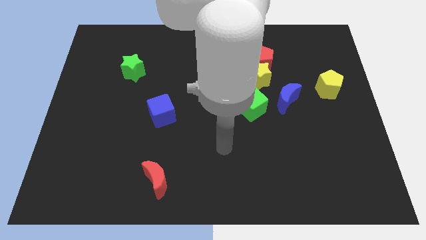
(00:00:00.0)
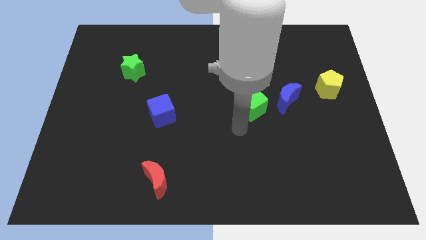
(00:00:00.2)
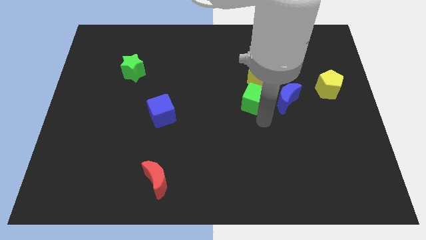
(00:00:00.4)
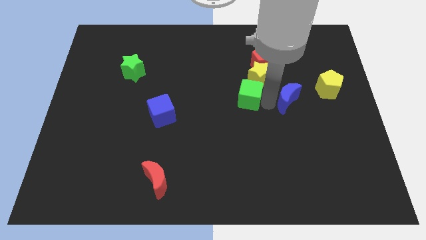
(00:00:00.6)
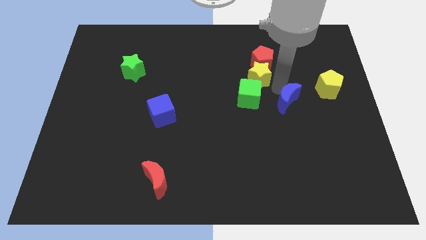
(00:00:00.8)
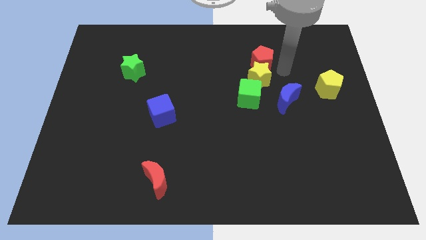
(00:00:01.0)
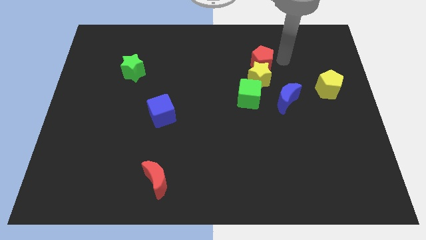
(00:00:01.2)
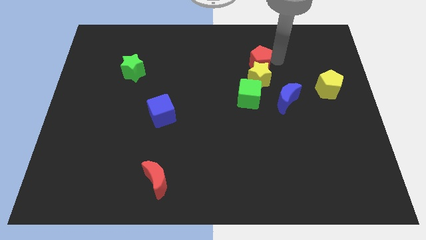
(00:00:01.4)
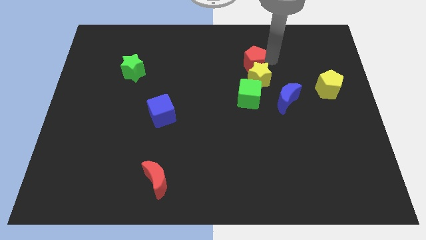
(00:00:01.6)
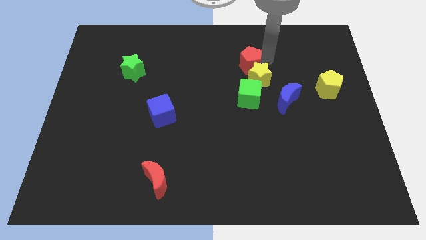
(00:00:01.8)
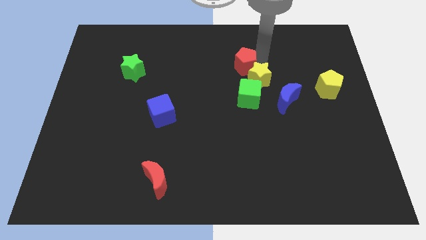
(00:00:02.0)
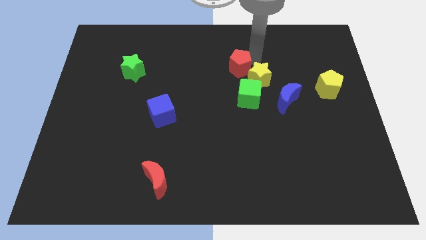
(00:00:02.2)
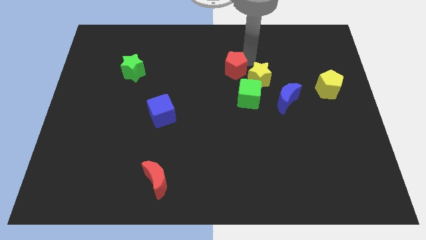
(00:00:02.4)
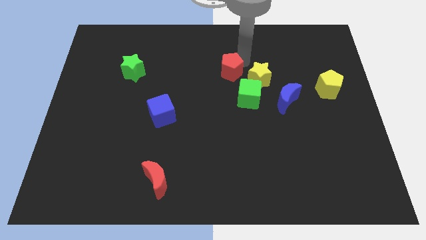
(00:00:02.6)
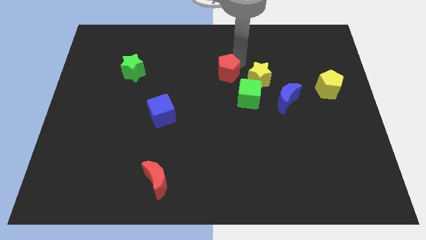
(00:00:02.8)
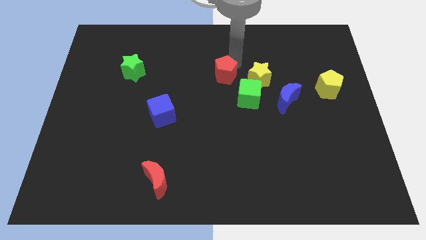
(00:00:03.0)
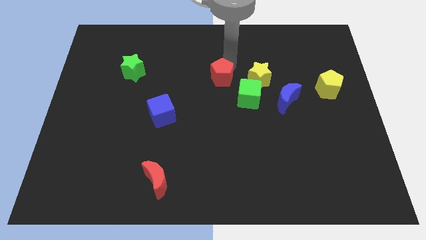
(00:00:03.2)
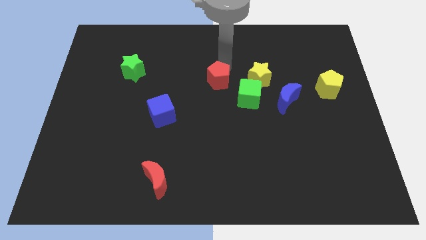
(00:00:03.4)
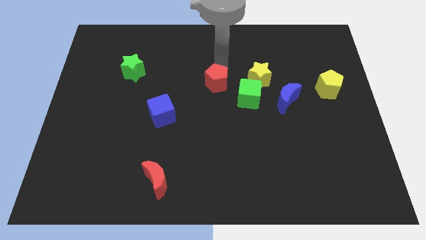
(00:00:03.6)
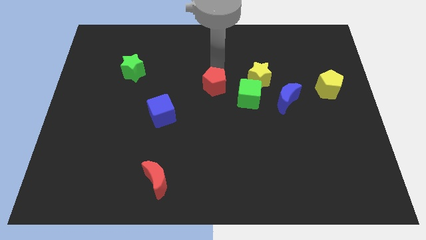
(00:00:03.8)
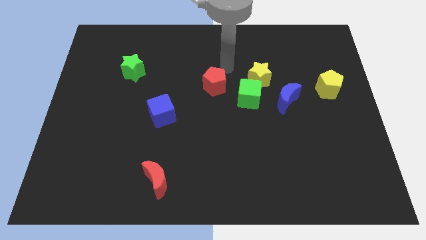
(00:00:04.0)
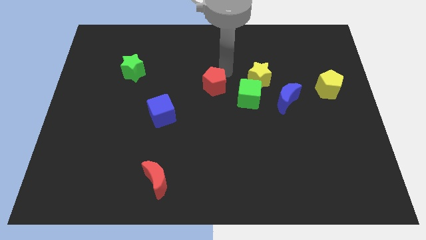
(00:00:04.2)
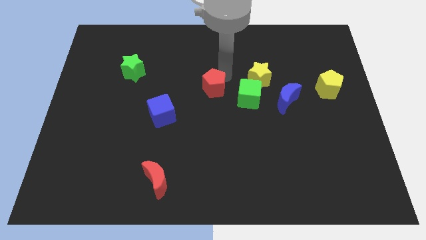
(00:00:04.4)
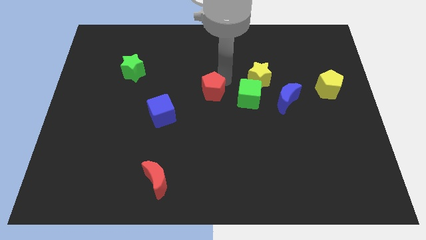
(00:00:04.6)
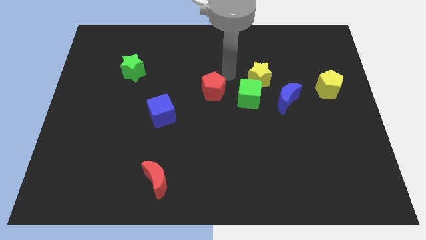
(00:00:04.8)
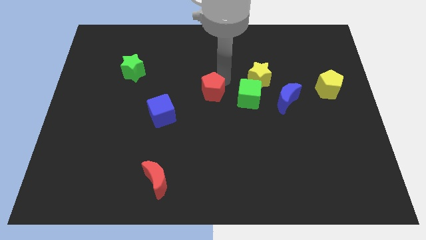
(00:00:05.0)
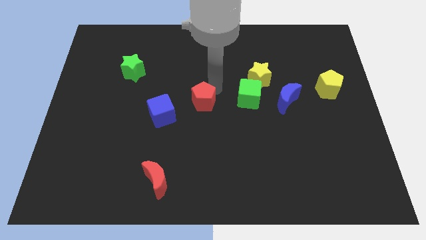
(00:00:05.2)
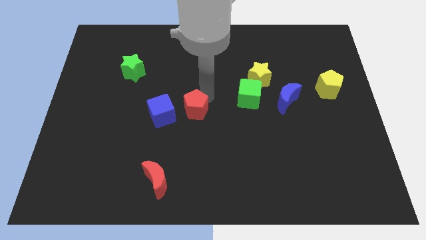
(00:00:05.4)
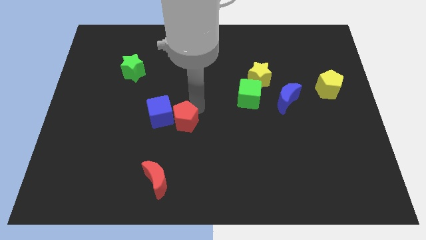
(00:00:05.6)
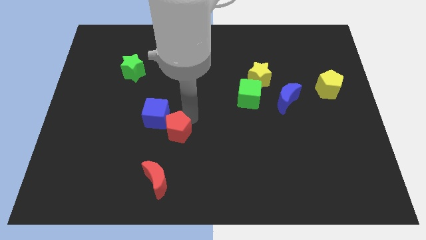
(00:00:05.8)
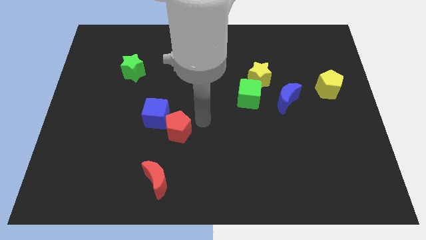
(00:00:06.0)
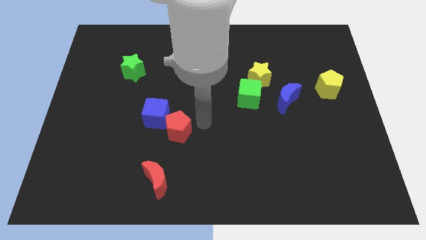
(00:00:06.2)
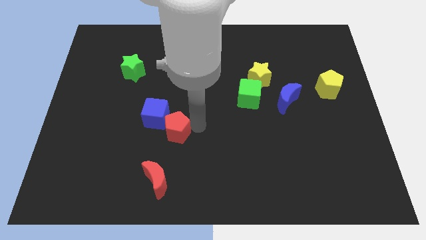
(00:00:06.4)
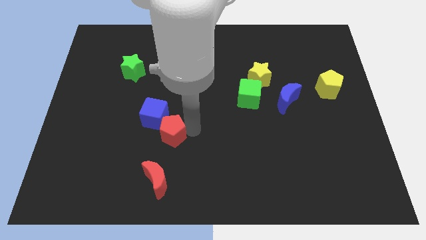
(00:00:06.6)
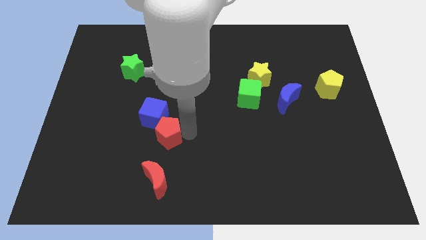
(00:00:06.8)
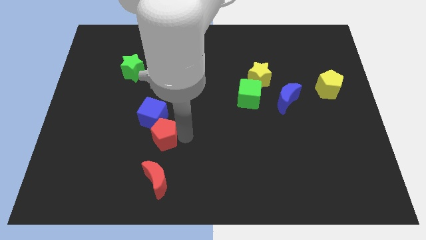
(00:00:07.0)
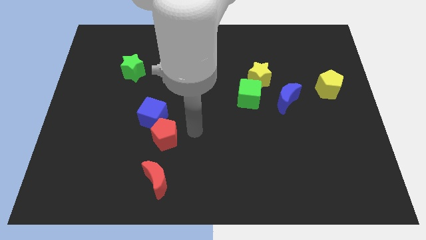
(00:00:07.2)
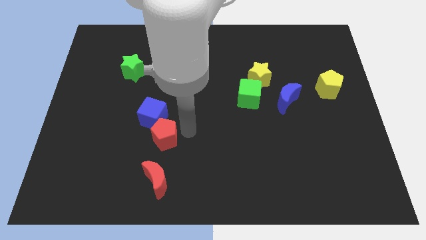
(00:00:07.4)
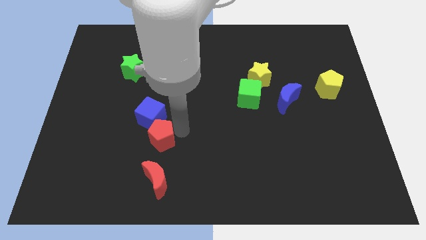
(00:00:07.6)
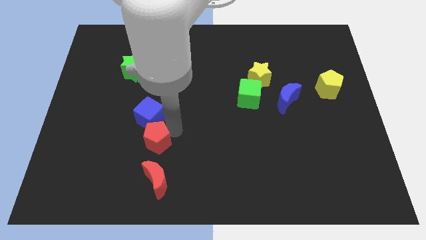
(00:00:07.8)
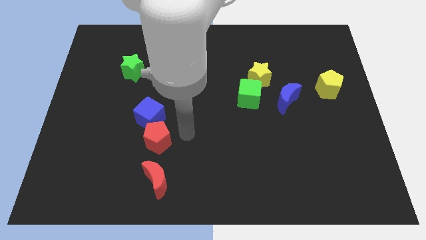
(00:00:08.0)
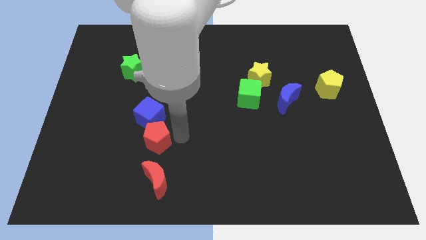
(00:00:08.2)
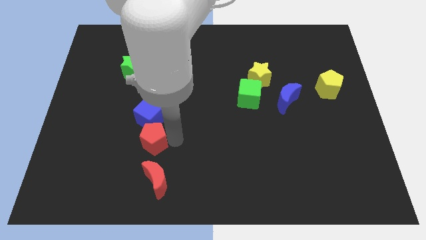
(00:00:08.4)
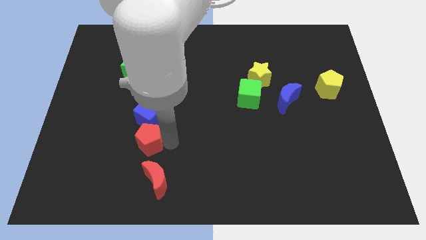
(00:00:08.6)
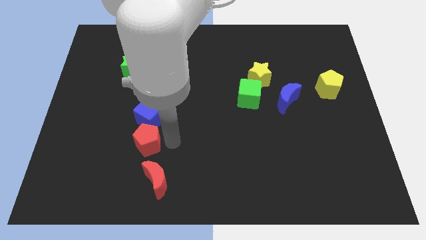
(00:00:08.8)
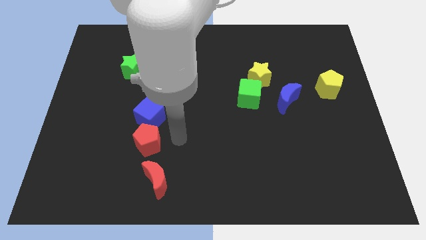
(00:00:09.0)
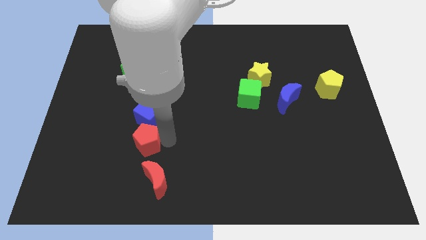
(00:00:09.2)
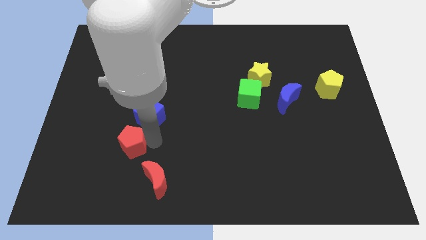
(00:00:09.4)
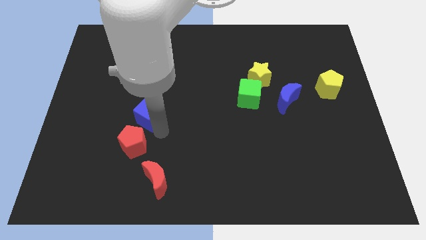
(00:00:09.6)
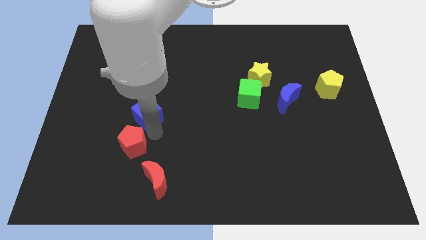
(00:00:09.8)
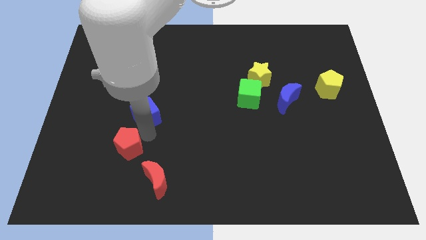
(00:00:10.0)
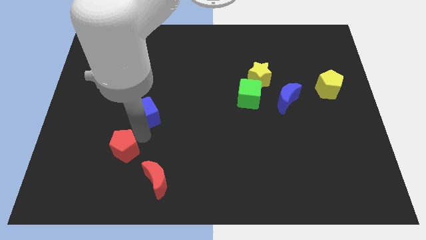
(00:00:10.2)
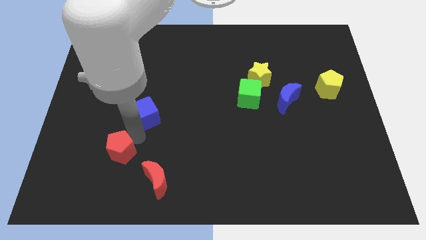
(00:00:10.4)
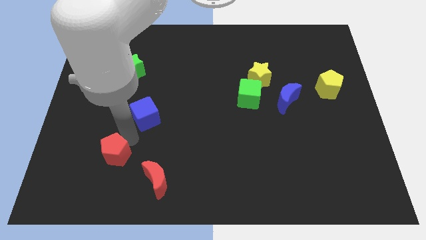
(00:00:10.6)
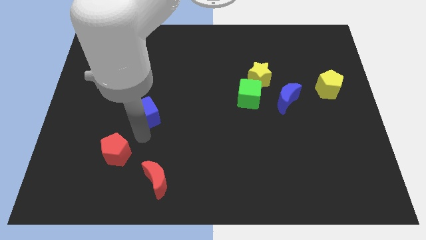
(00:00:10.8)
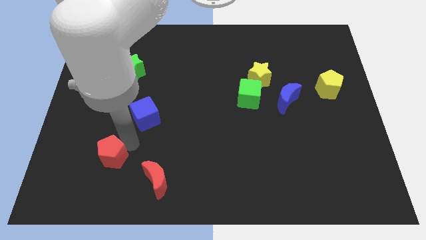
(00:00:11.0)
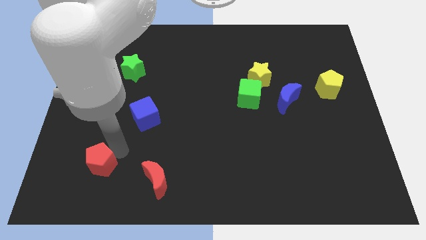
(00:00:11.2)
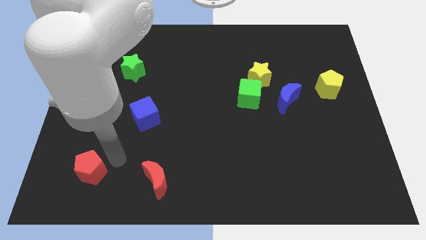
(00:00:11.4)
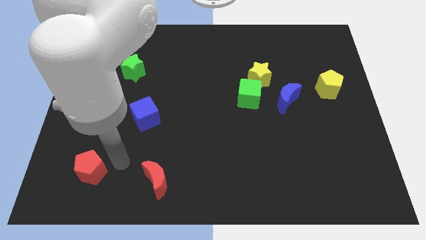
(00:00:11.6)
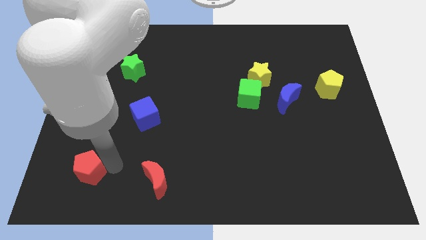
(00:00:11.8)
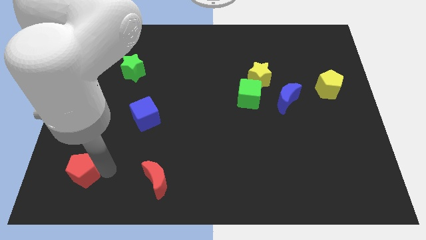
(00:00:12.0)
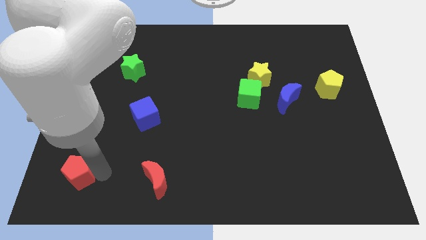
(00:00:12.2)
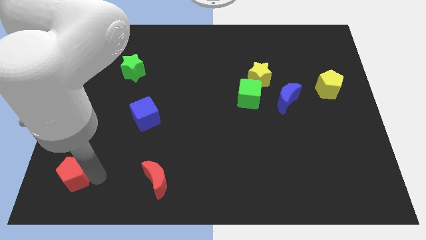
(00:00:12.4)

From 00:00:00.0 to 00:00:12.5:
push the red pentagon to the bottom left
